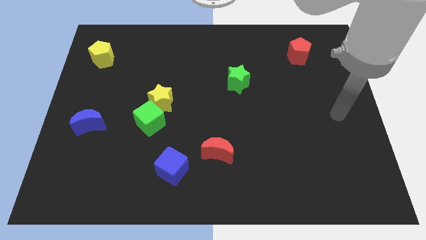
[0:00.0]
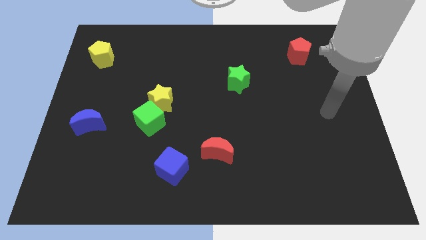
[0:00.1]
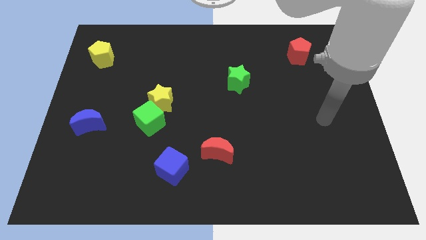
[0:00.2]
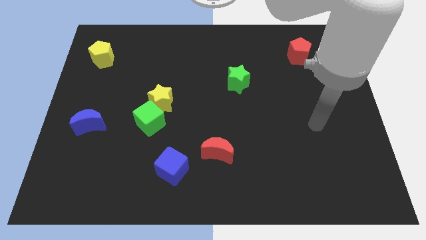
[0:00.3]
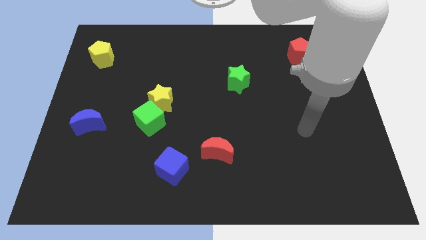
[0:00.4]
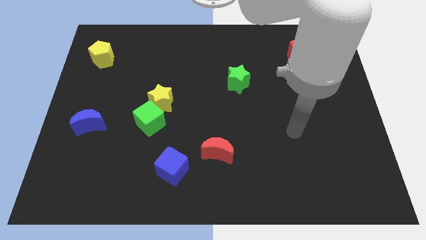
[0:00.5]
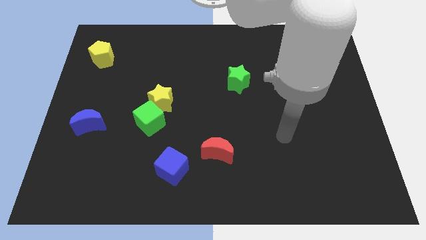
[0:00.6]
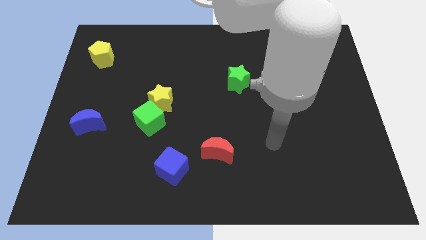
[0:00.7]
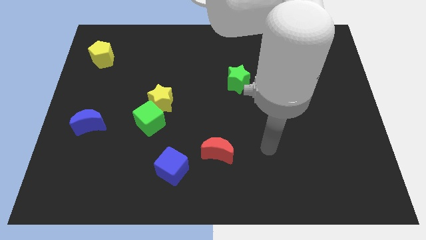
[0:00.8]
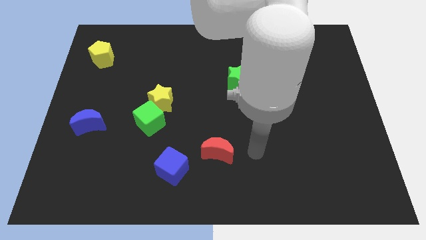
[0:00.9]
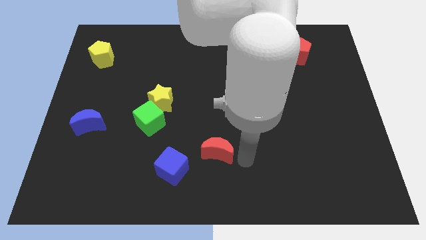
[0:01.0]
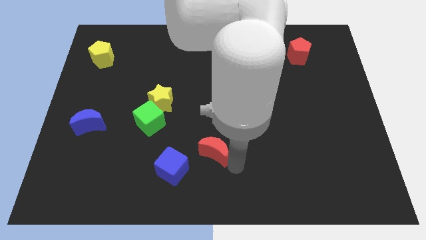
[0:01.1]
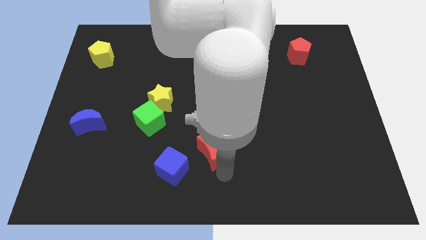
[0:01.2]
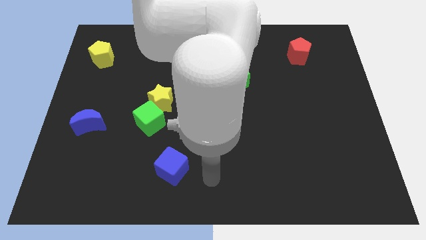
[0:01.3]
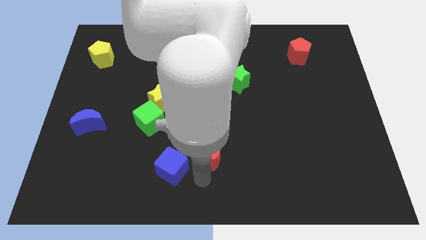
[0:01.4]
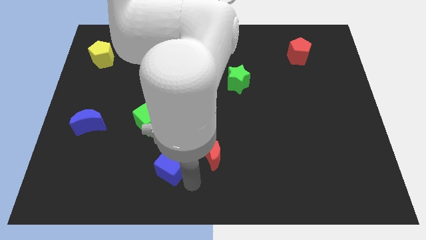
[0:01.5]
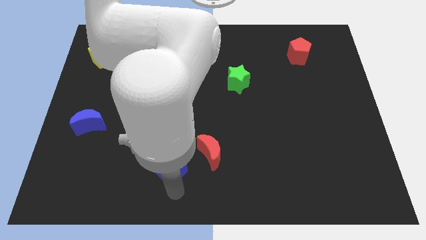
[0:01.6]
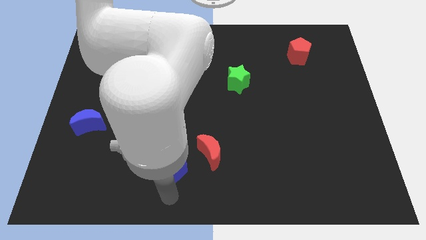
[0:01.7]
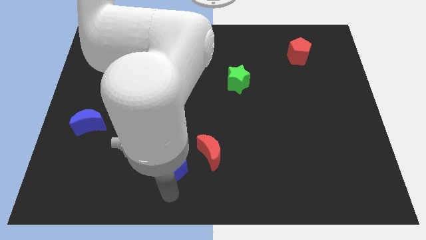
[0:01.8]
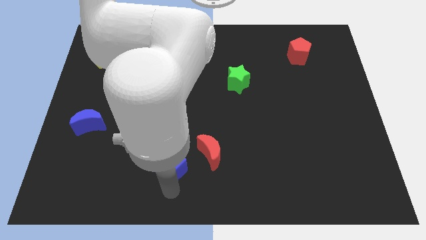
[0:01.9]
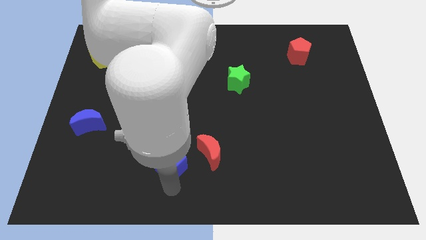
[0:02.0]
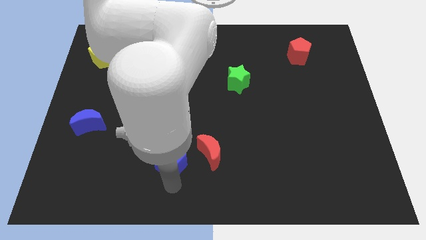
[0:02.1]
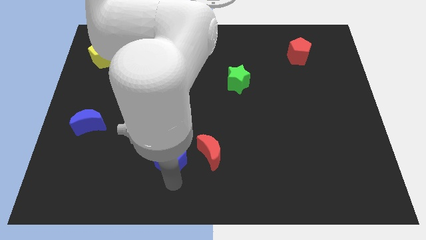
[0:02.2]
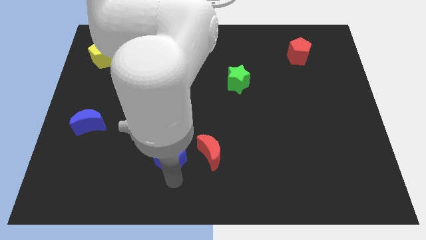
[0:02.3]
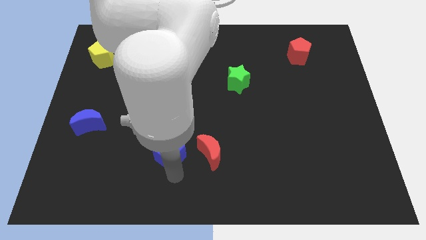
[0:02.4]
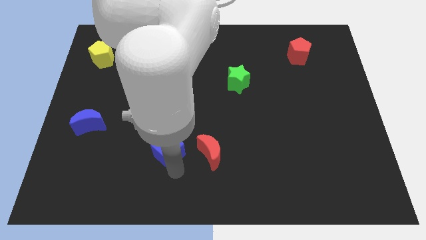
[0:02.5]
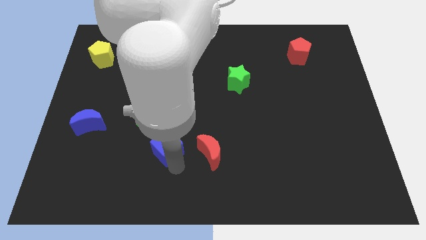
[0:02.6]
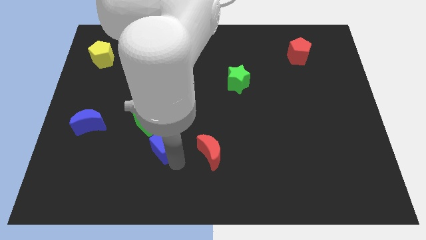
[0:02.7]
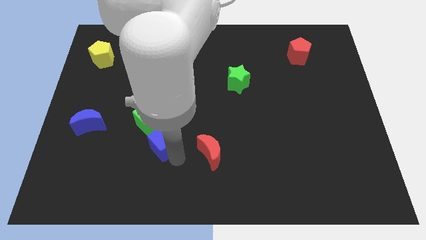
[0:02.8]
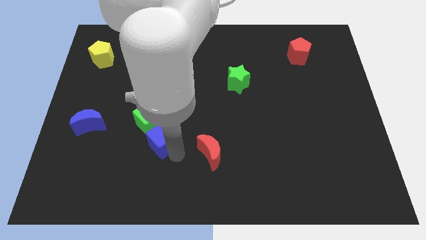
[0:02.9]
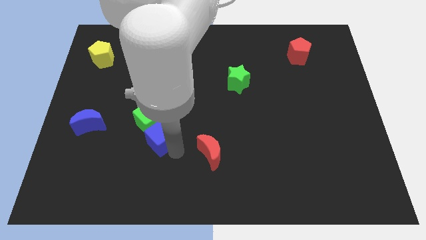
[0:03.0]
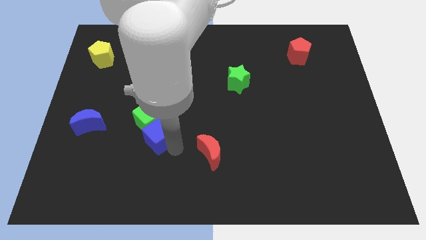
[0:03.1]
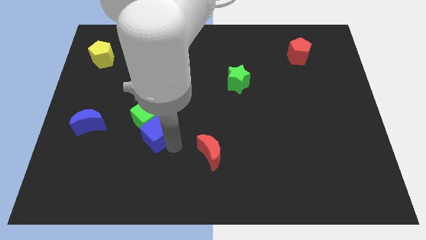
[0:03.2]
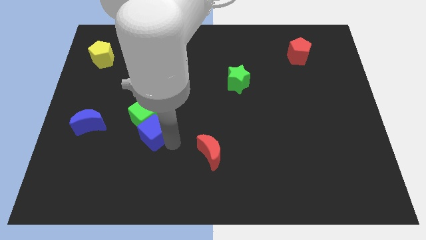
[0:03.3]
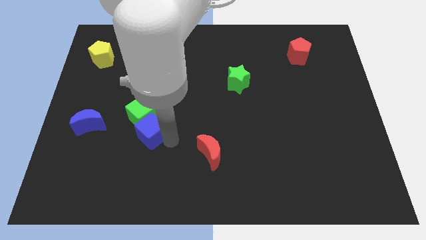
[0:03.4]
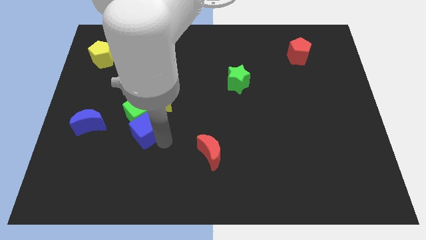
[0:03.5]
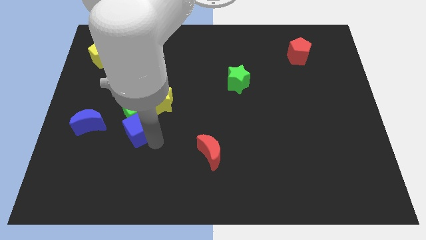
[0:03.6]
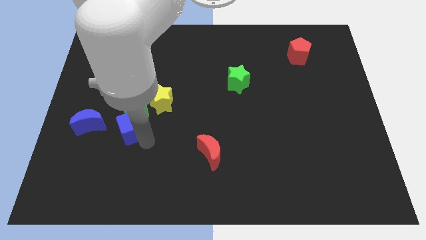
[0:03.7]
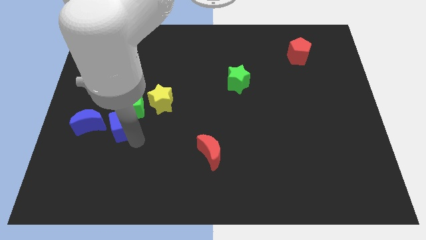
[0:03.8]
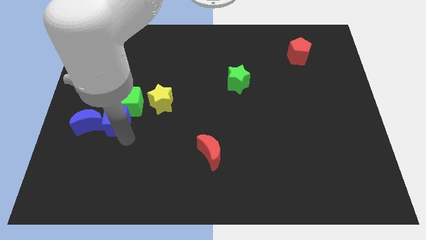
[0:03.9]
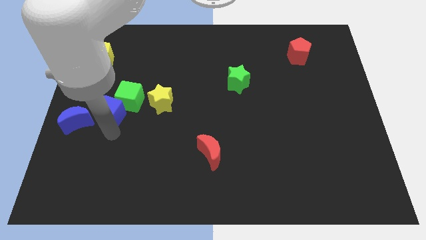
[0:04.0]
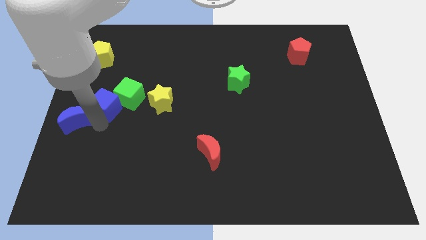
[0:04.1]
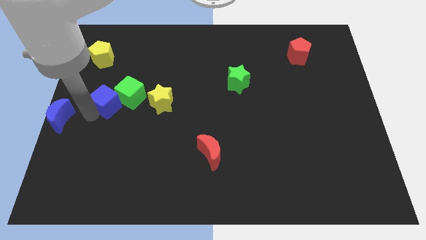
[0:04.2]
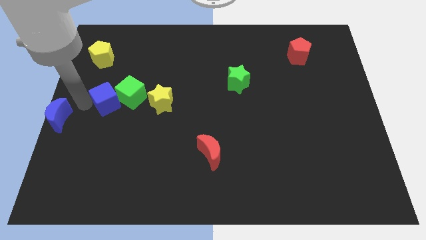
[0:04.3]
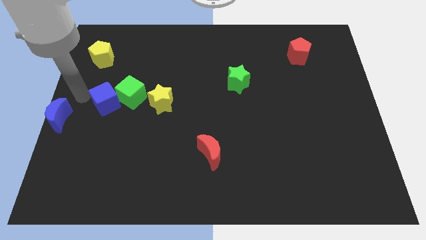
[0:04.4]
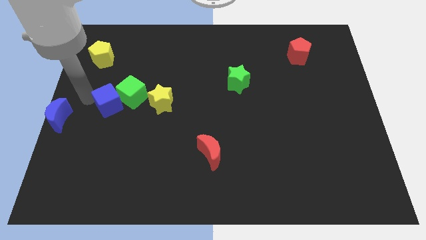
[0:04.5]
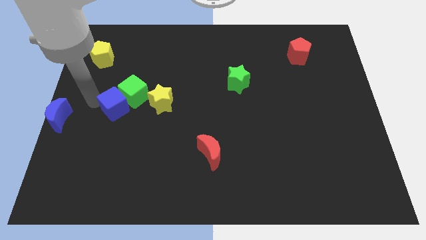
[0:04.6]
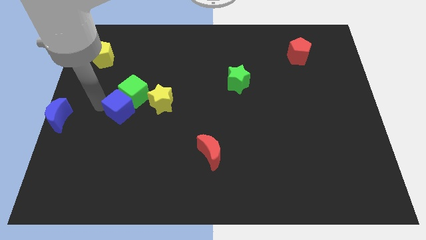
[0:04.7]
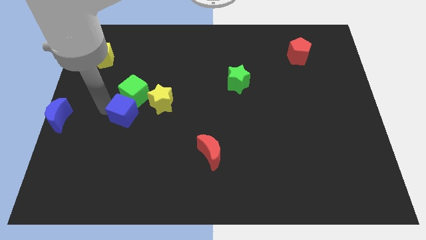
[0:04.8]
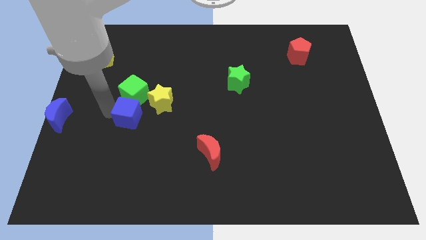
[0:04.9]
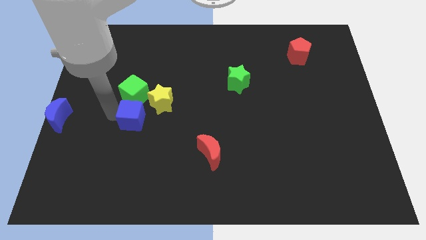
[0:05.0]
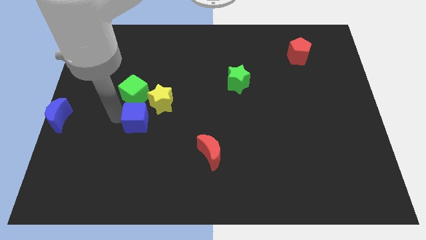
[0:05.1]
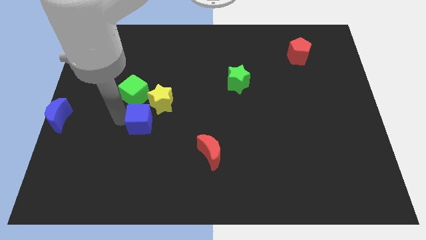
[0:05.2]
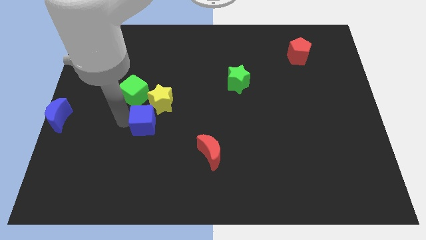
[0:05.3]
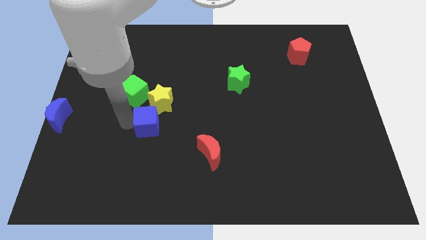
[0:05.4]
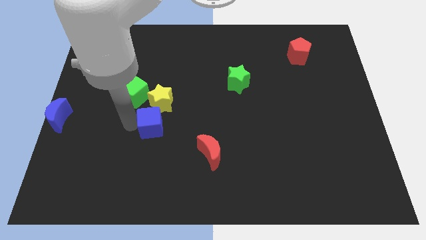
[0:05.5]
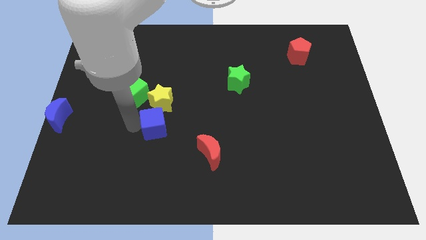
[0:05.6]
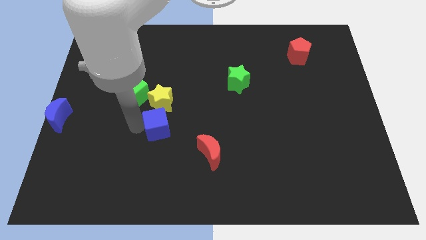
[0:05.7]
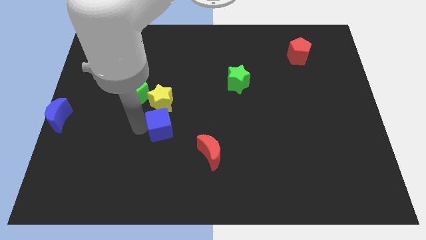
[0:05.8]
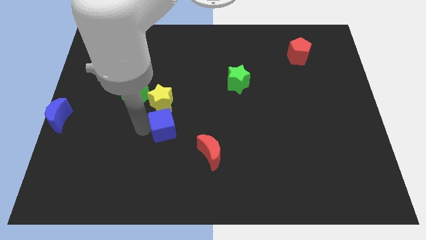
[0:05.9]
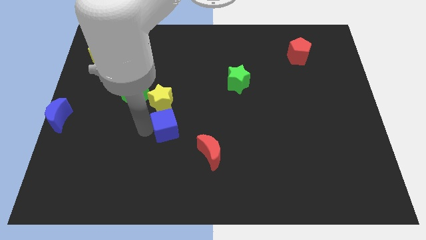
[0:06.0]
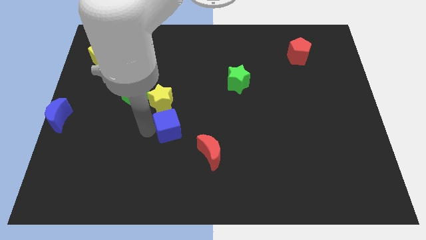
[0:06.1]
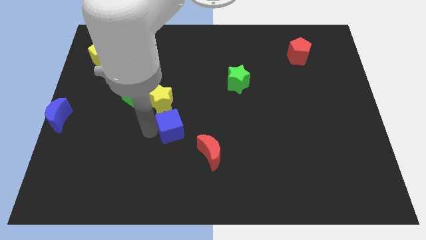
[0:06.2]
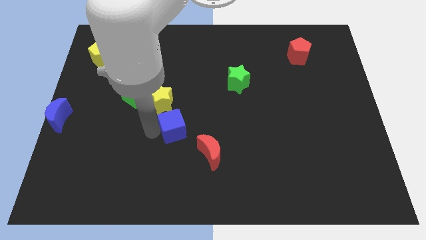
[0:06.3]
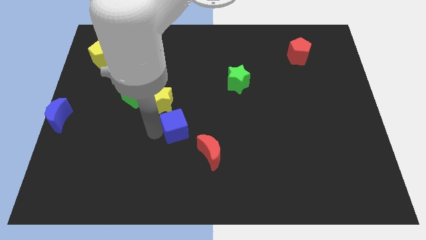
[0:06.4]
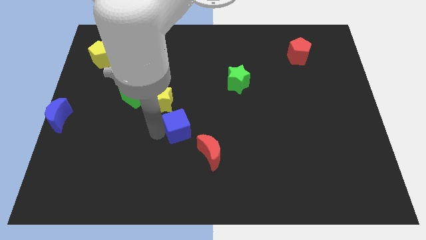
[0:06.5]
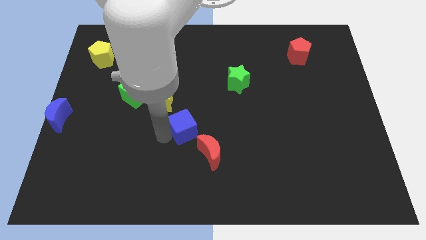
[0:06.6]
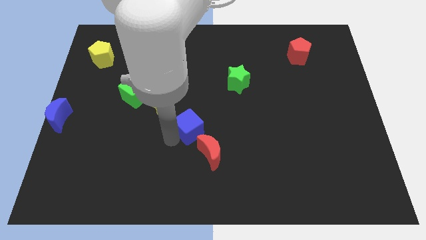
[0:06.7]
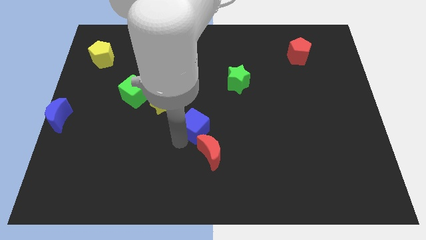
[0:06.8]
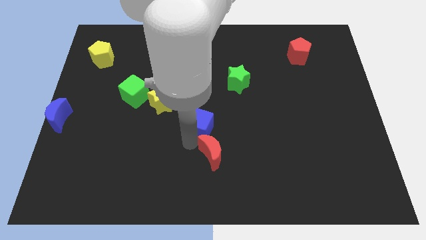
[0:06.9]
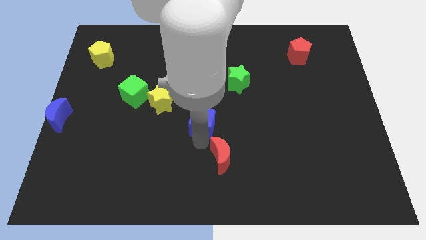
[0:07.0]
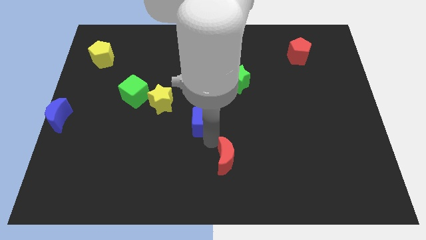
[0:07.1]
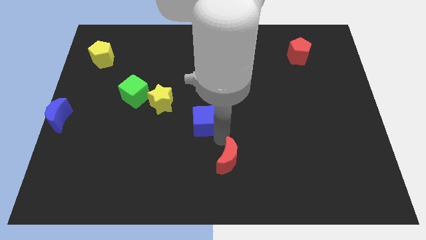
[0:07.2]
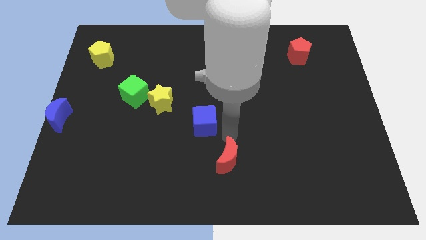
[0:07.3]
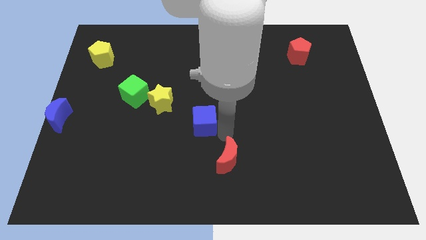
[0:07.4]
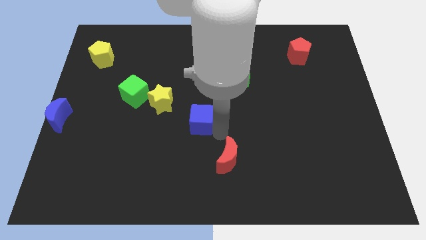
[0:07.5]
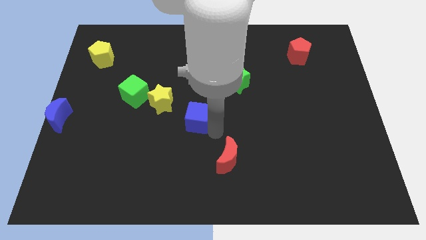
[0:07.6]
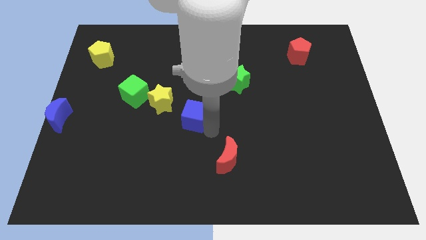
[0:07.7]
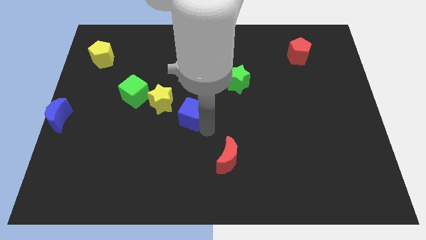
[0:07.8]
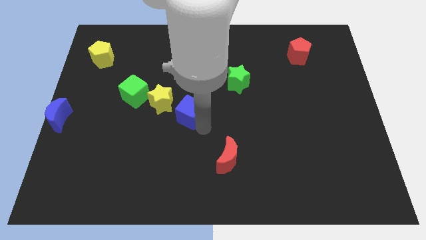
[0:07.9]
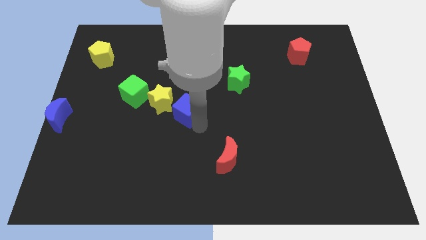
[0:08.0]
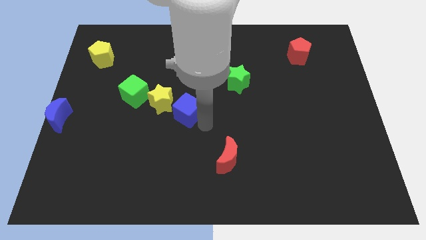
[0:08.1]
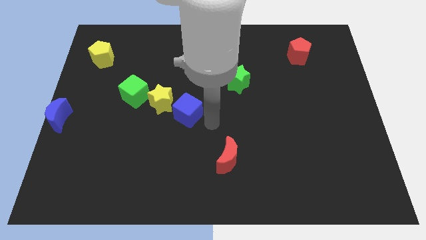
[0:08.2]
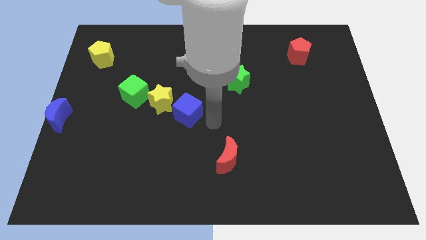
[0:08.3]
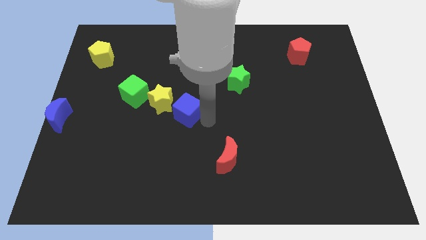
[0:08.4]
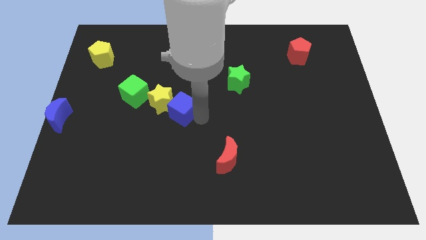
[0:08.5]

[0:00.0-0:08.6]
put the blue cube close to the yellow star
